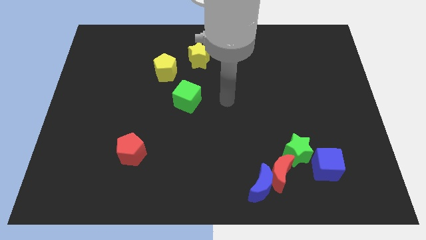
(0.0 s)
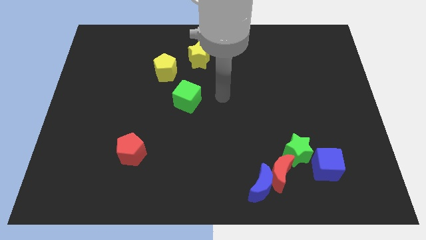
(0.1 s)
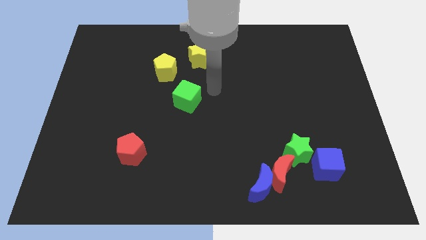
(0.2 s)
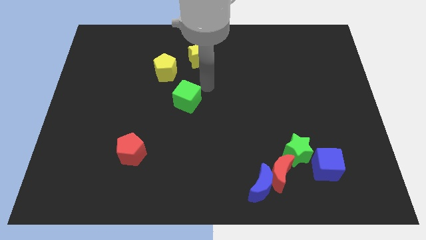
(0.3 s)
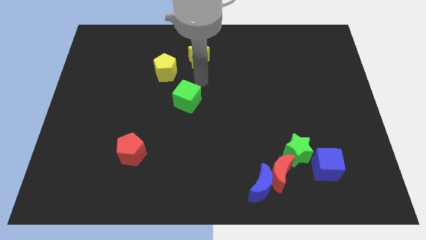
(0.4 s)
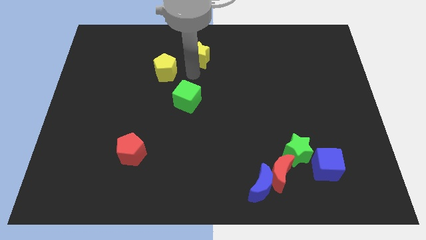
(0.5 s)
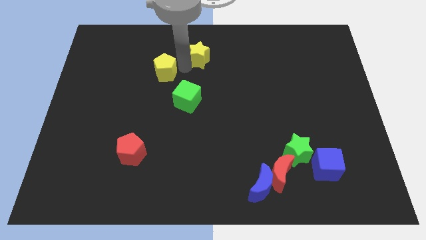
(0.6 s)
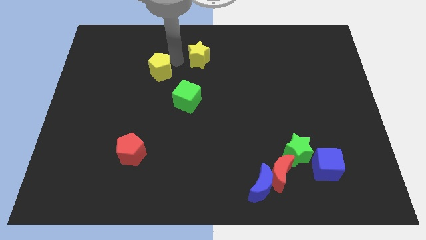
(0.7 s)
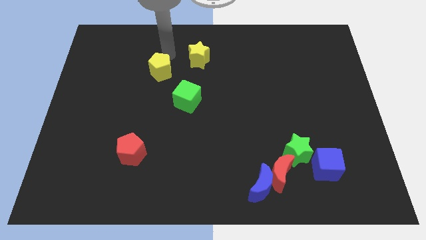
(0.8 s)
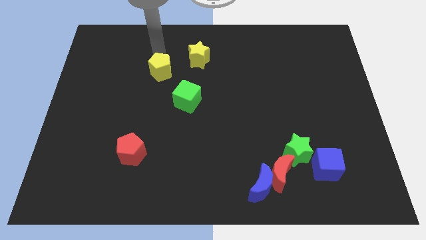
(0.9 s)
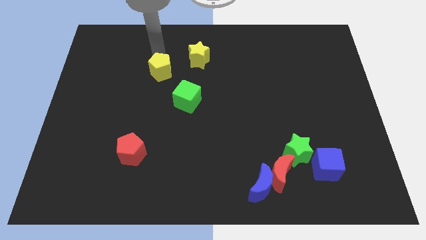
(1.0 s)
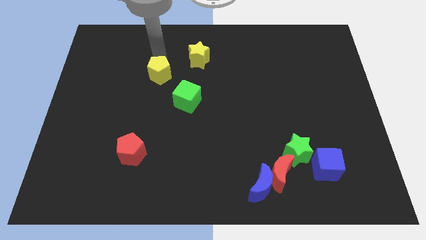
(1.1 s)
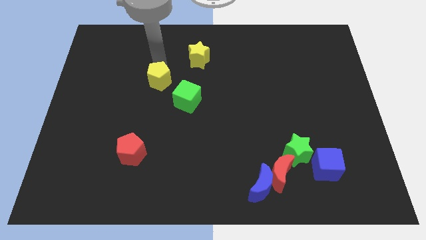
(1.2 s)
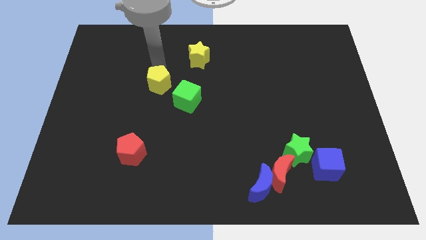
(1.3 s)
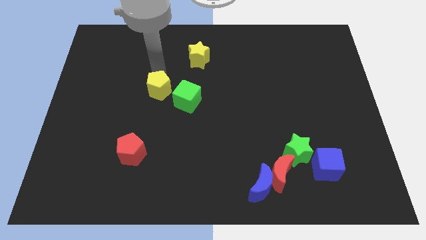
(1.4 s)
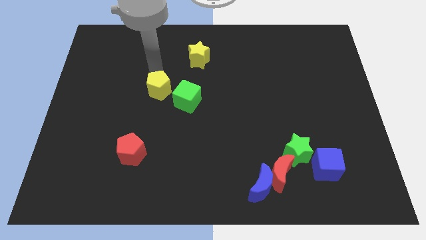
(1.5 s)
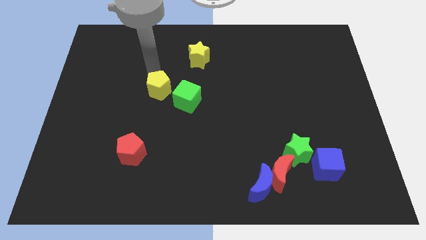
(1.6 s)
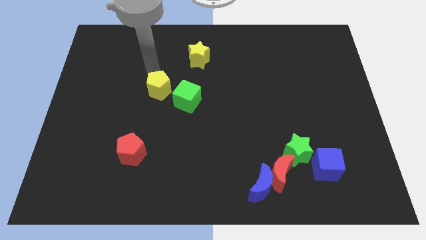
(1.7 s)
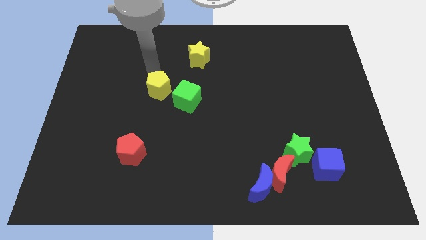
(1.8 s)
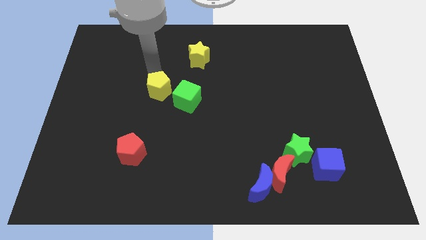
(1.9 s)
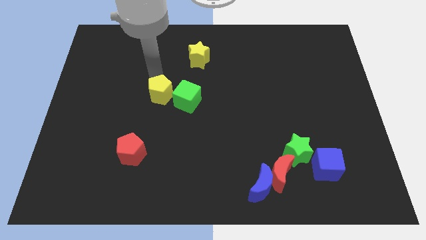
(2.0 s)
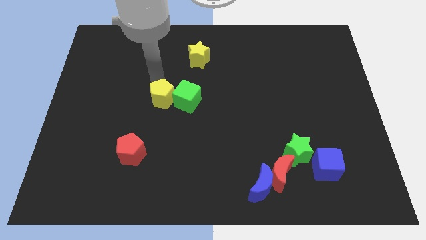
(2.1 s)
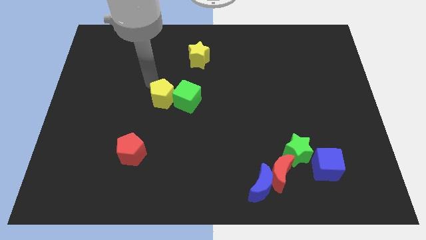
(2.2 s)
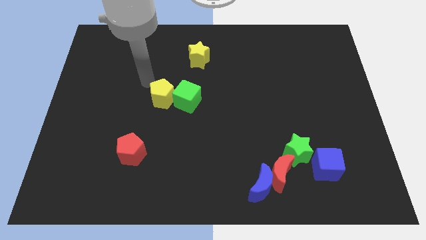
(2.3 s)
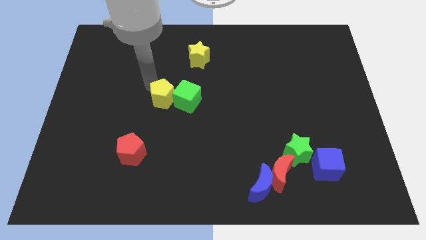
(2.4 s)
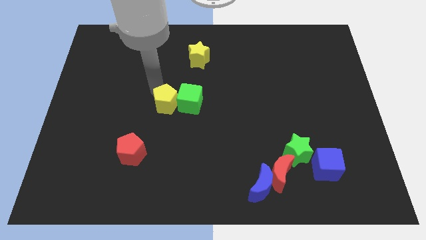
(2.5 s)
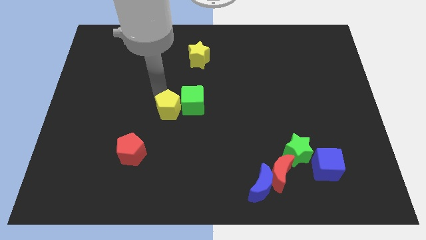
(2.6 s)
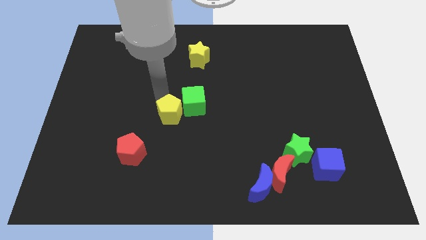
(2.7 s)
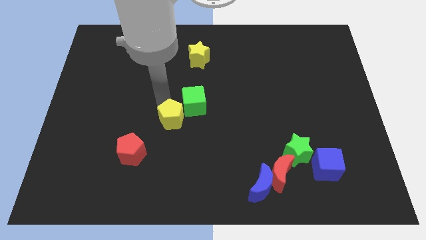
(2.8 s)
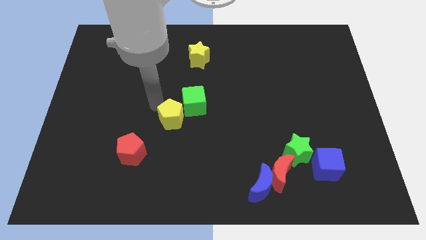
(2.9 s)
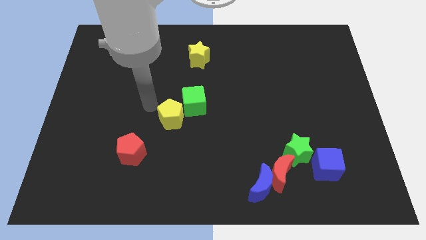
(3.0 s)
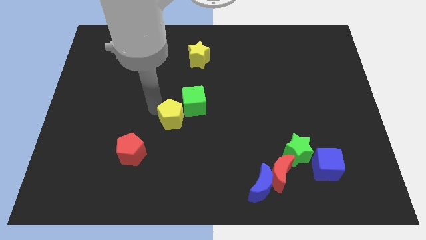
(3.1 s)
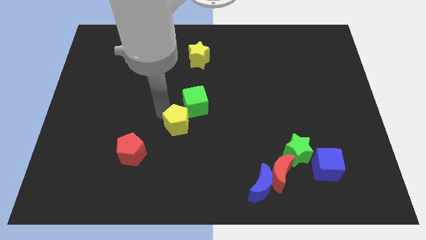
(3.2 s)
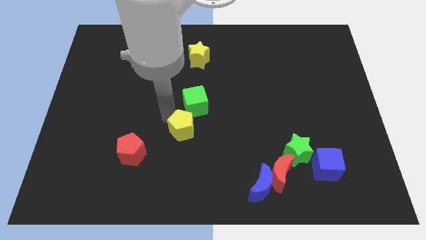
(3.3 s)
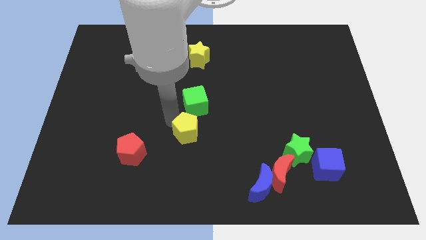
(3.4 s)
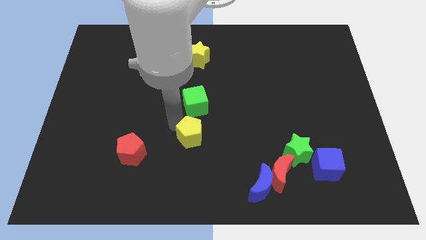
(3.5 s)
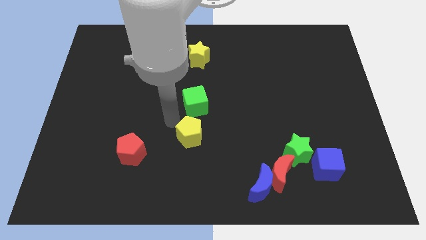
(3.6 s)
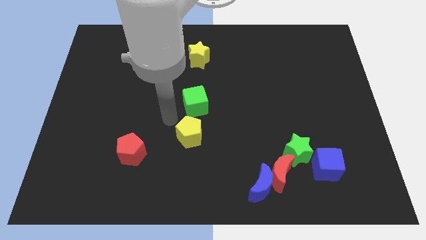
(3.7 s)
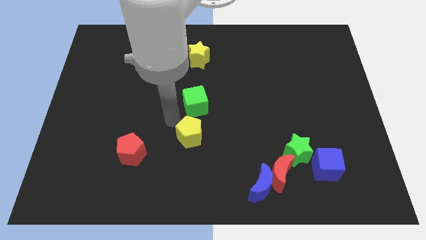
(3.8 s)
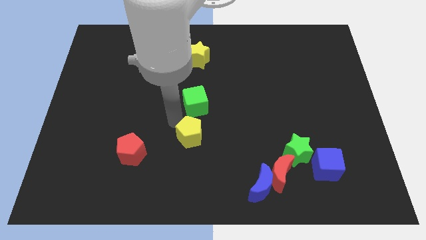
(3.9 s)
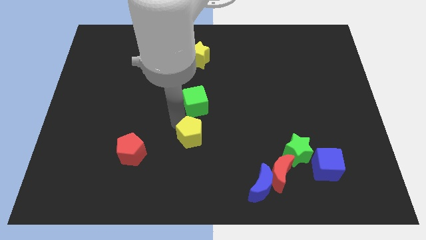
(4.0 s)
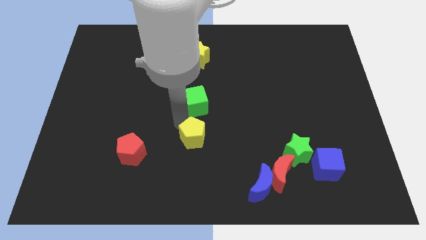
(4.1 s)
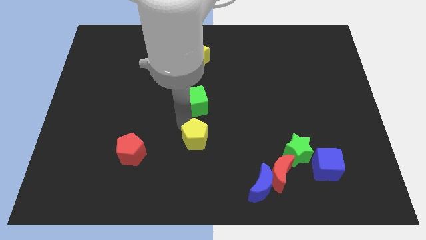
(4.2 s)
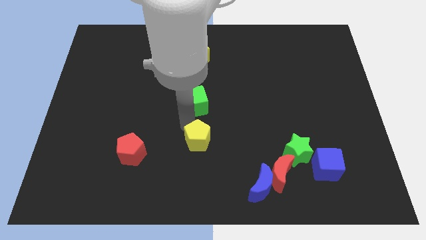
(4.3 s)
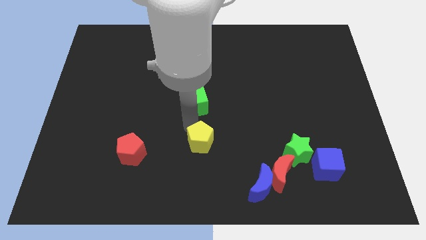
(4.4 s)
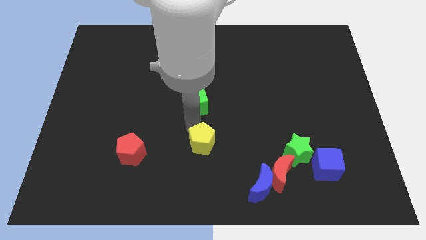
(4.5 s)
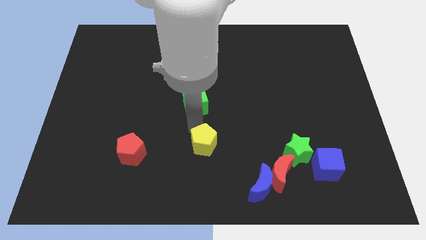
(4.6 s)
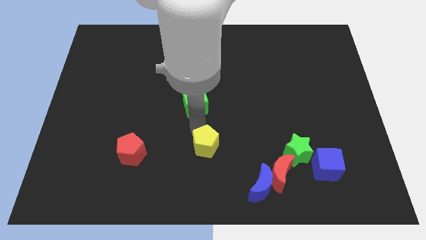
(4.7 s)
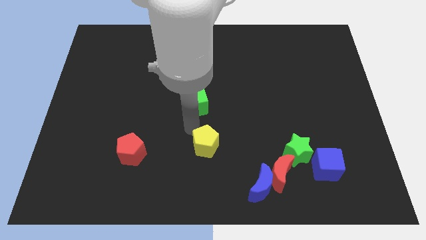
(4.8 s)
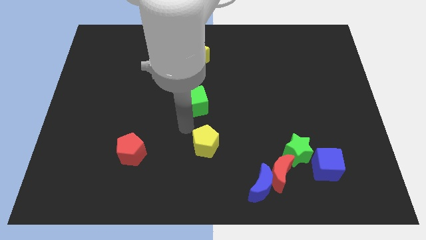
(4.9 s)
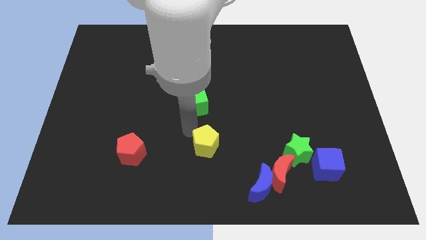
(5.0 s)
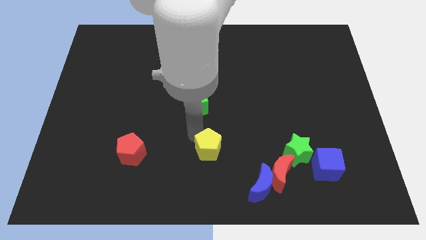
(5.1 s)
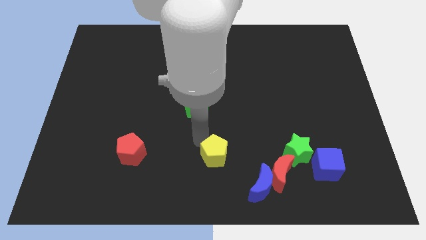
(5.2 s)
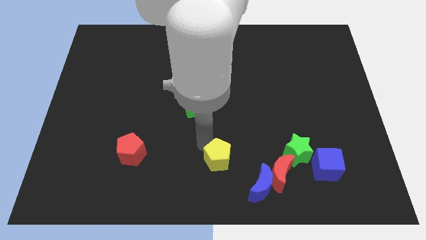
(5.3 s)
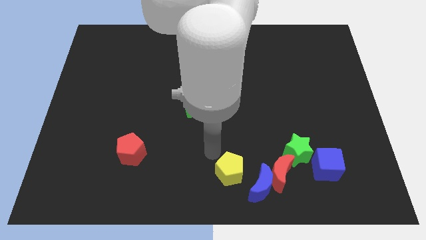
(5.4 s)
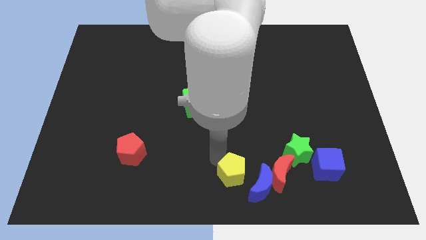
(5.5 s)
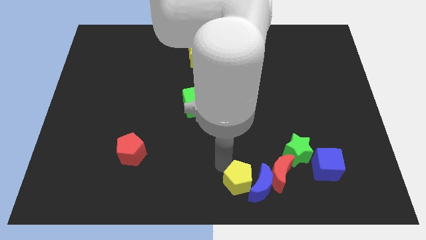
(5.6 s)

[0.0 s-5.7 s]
push the yellow pentagon to the blue moon

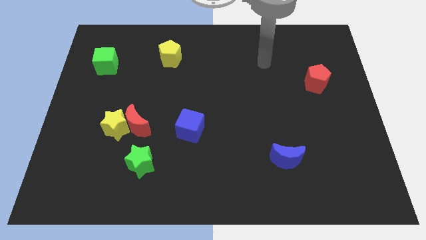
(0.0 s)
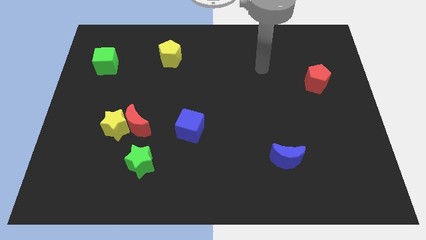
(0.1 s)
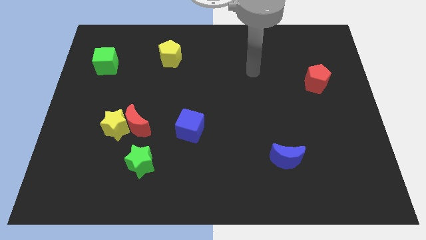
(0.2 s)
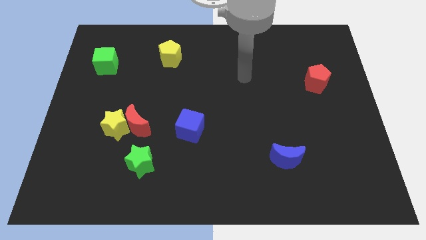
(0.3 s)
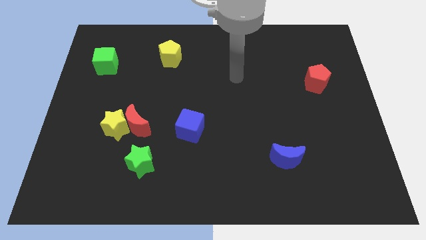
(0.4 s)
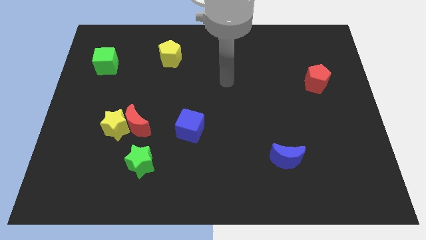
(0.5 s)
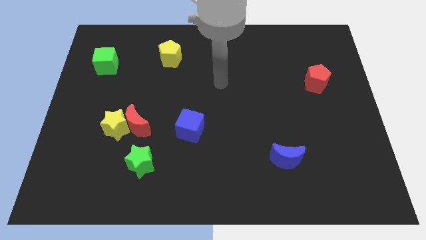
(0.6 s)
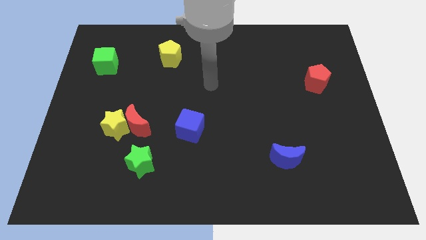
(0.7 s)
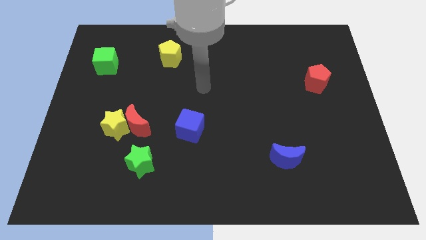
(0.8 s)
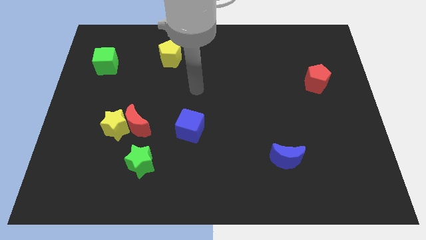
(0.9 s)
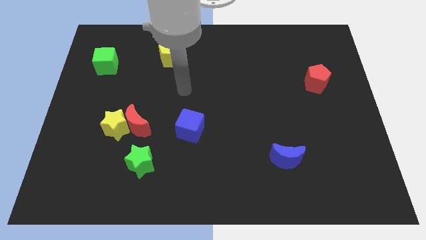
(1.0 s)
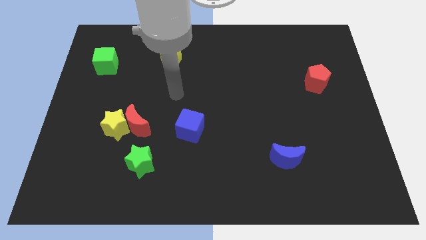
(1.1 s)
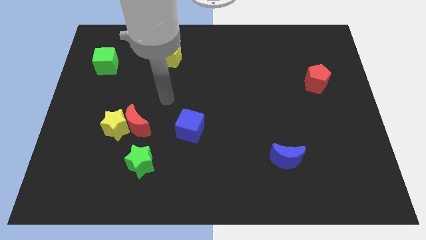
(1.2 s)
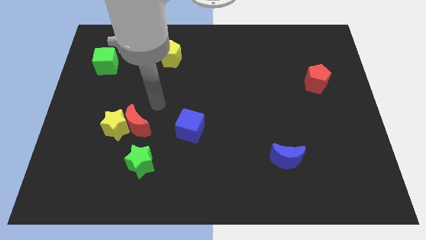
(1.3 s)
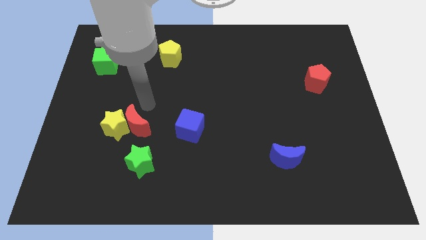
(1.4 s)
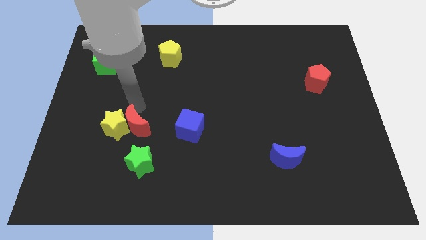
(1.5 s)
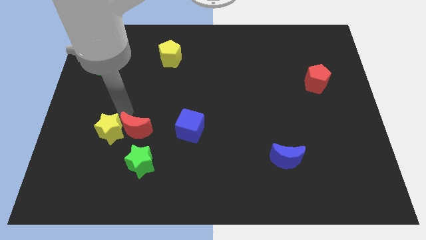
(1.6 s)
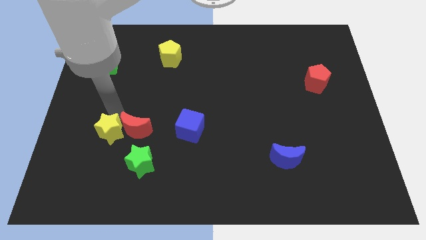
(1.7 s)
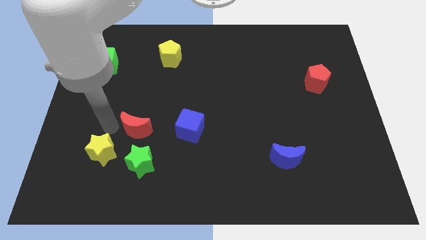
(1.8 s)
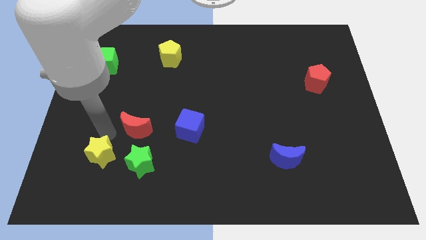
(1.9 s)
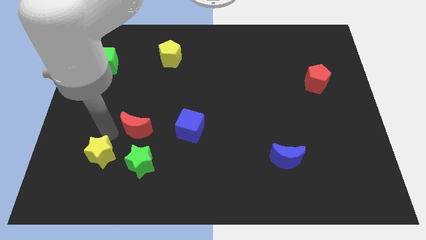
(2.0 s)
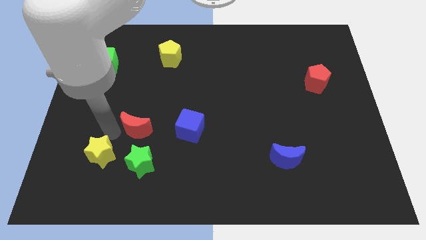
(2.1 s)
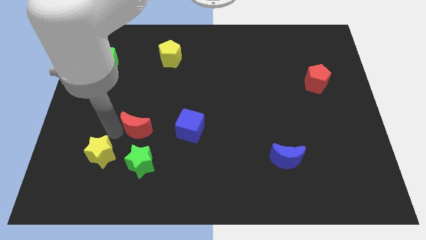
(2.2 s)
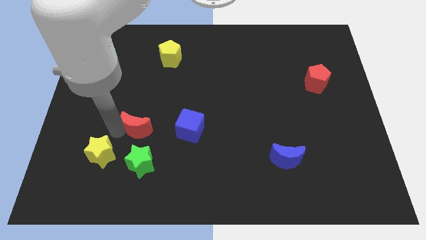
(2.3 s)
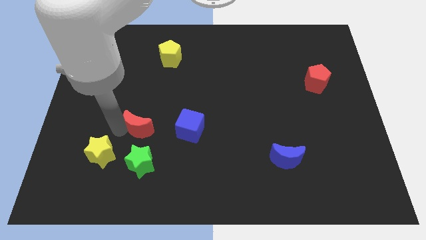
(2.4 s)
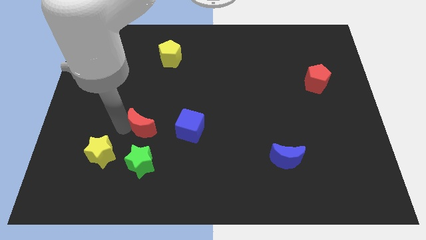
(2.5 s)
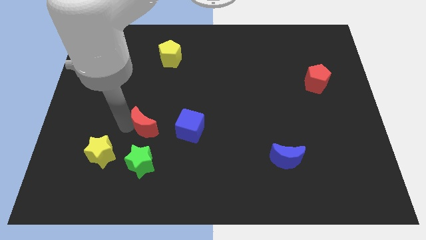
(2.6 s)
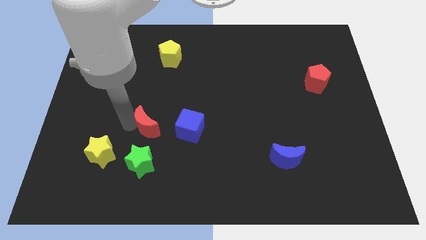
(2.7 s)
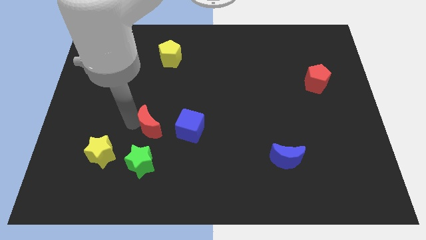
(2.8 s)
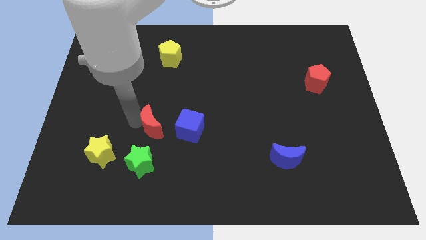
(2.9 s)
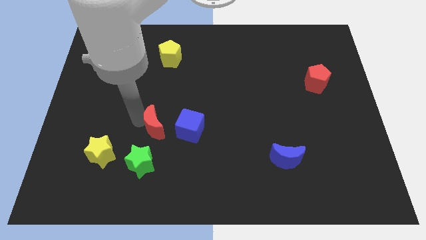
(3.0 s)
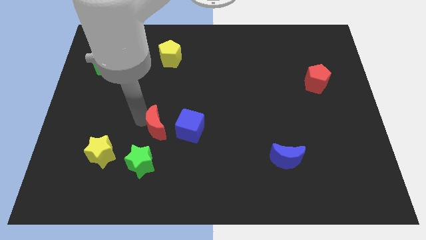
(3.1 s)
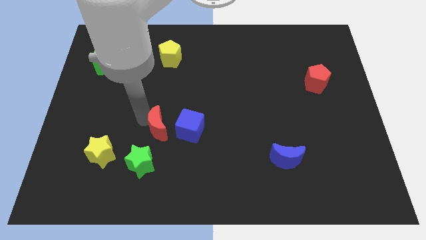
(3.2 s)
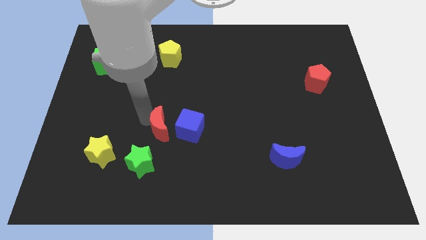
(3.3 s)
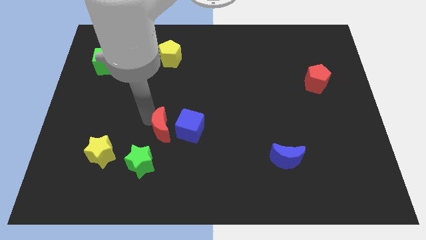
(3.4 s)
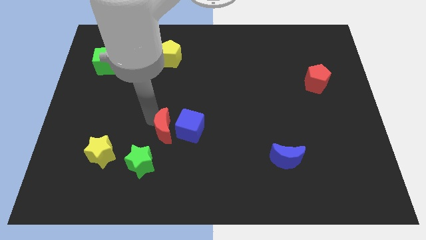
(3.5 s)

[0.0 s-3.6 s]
slide the red moon towards the blue cube
